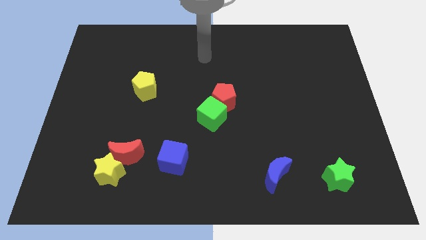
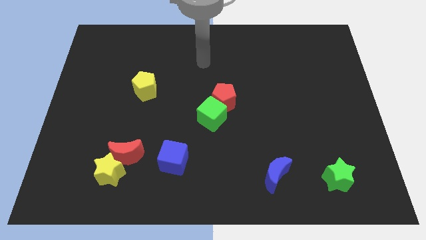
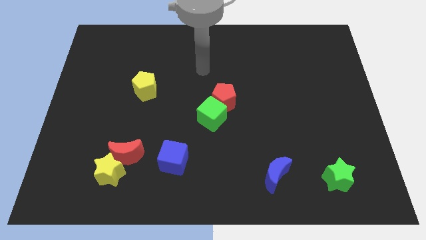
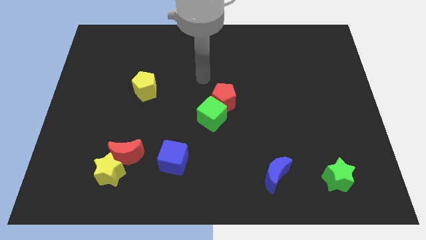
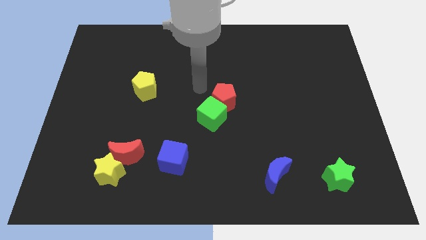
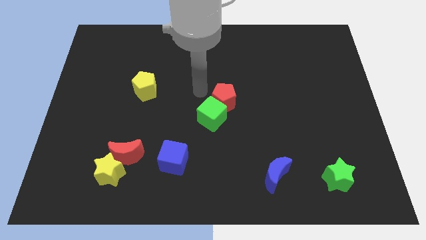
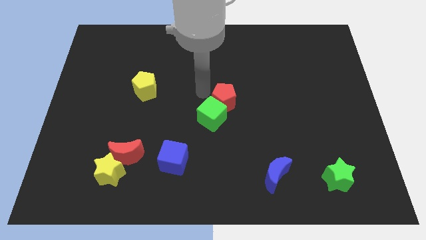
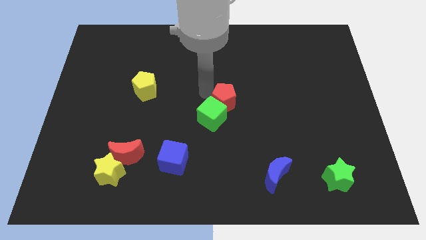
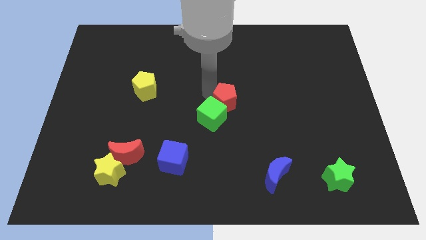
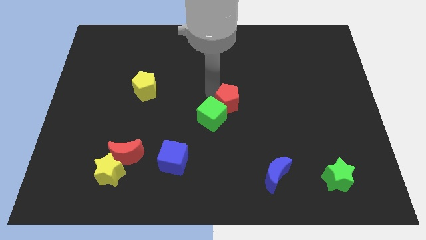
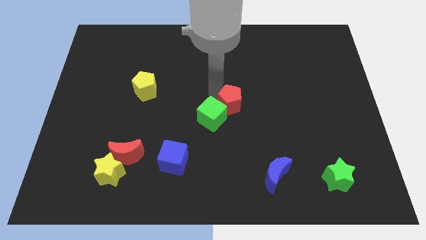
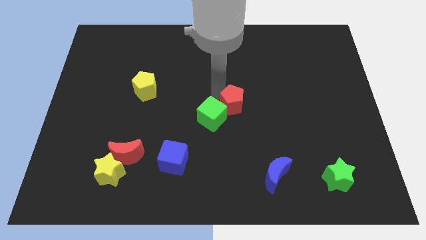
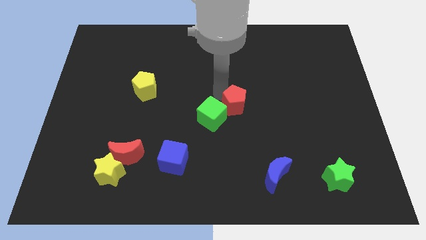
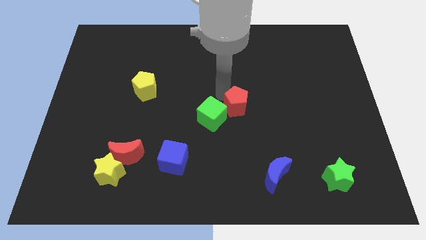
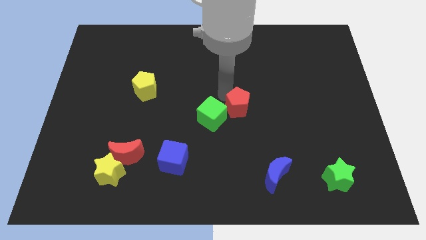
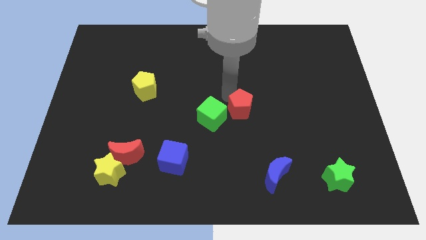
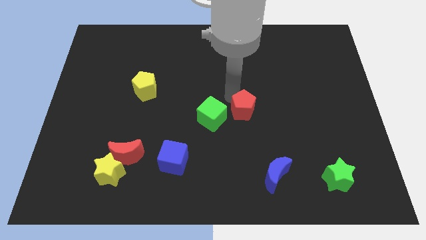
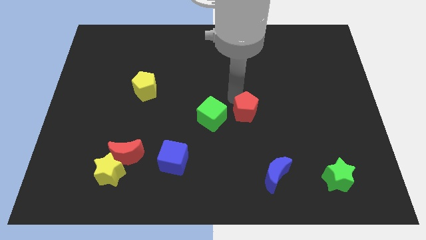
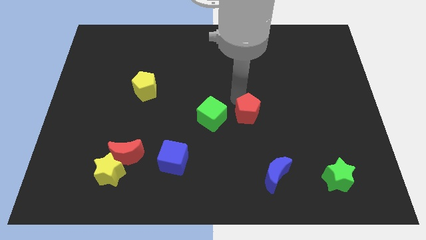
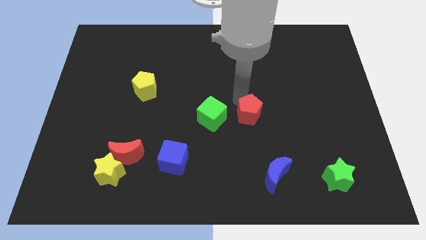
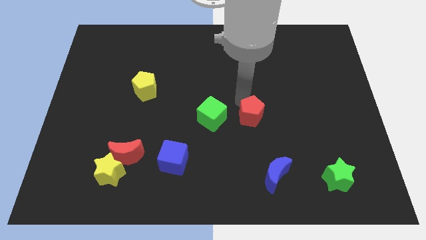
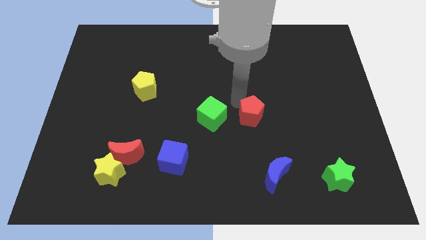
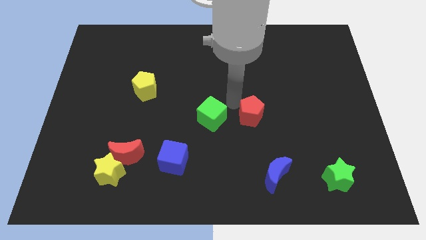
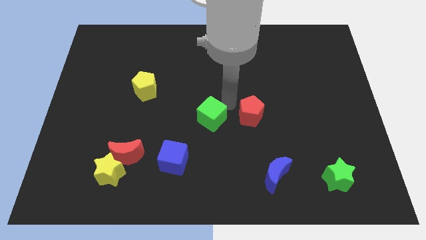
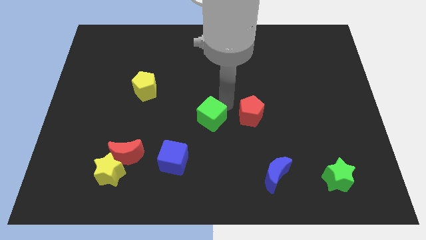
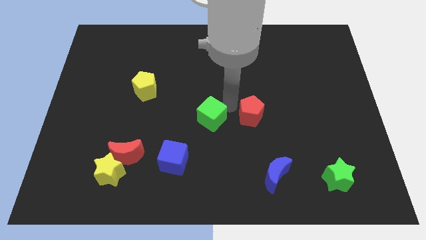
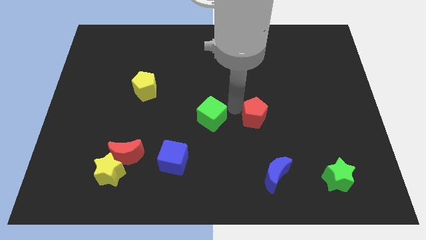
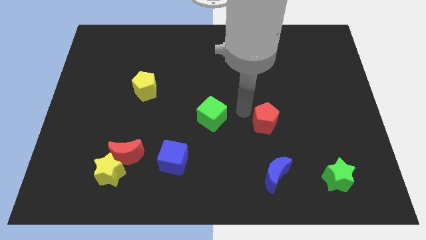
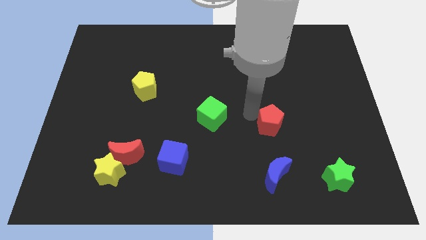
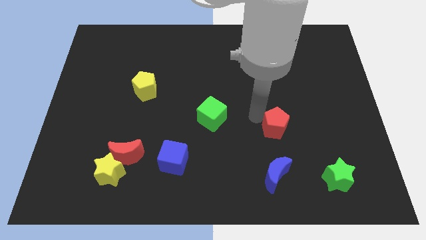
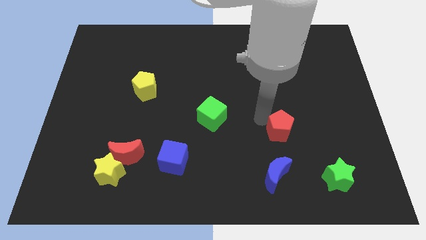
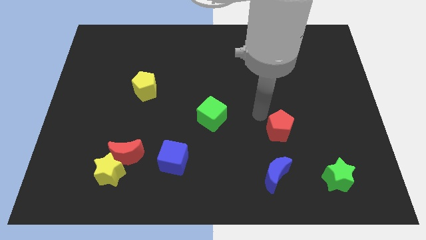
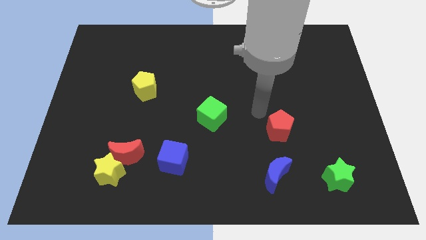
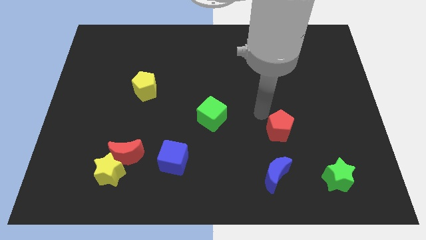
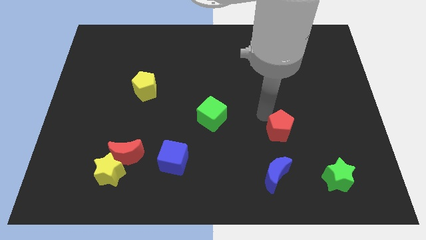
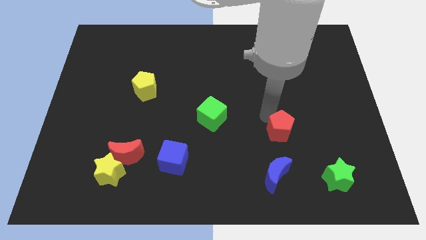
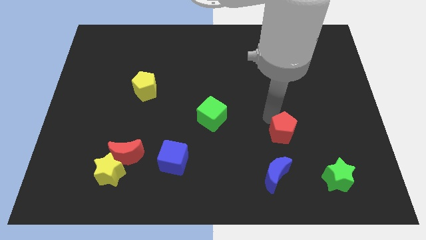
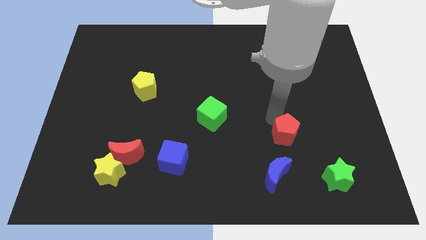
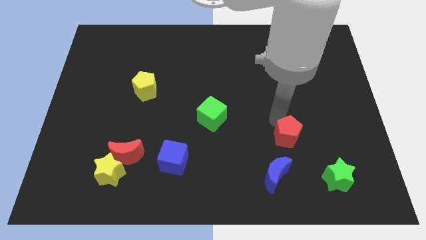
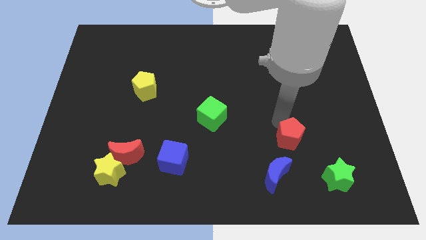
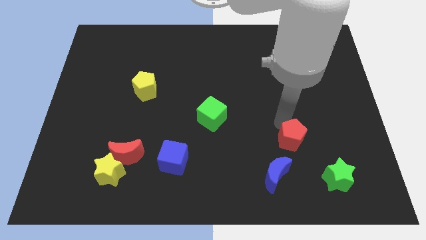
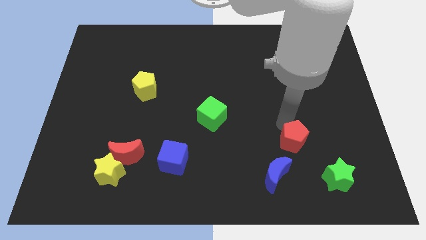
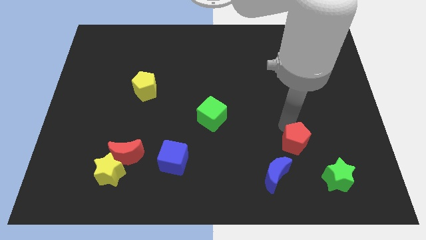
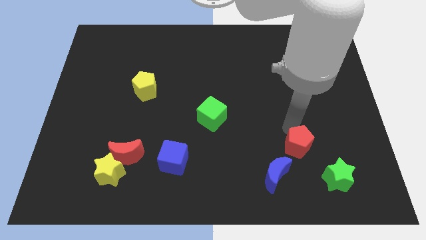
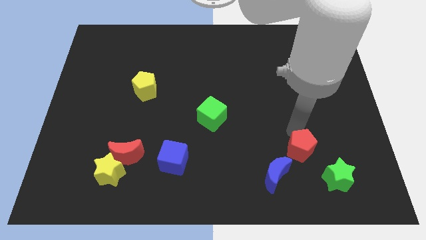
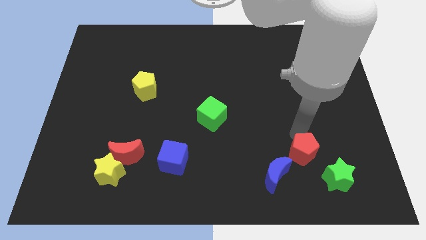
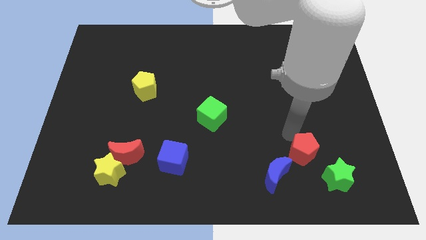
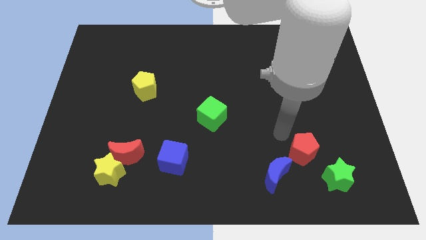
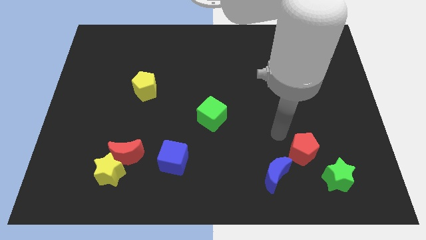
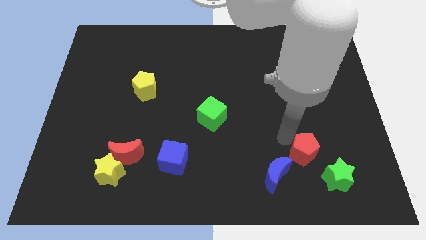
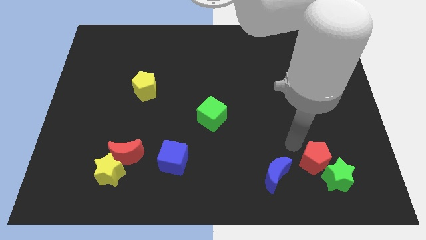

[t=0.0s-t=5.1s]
move the red pentagon next to the green star

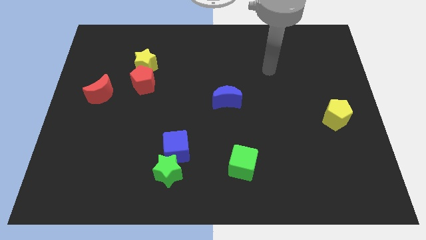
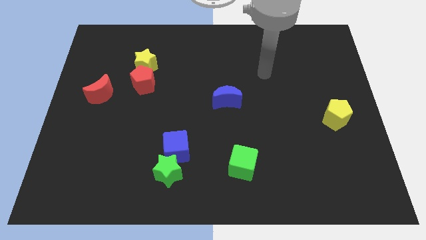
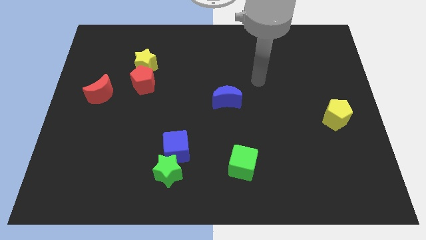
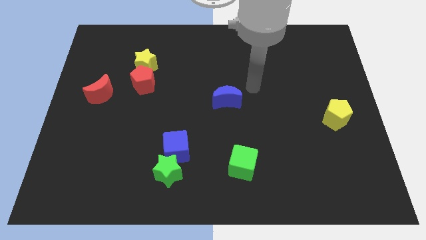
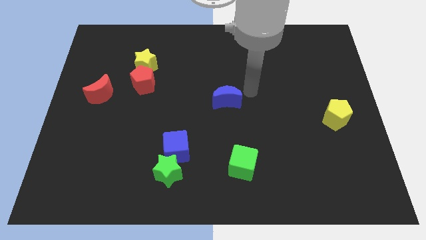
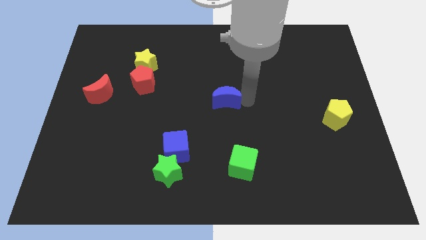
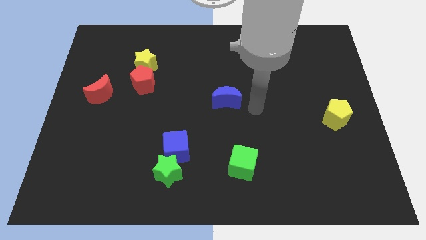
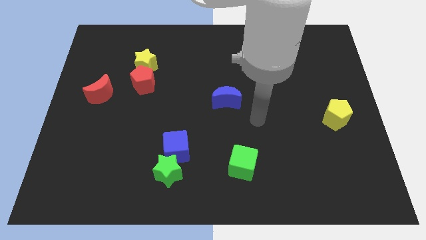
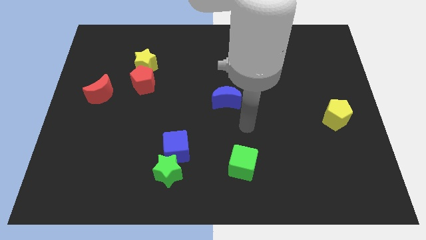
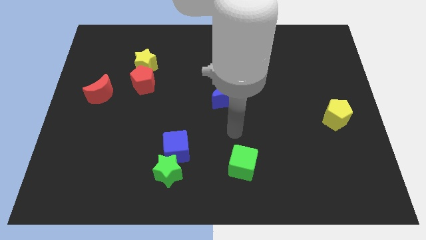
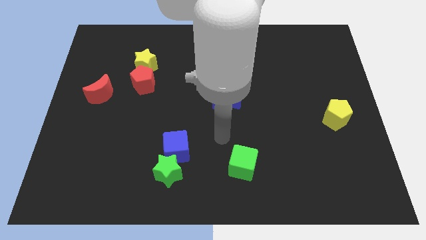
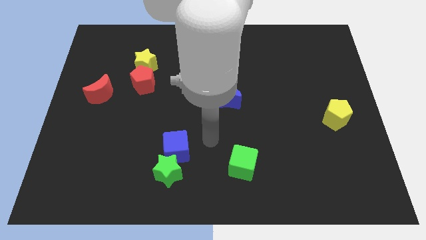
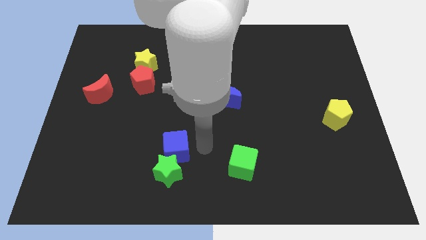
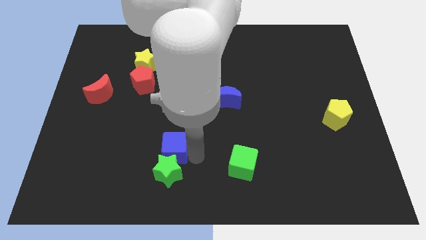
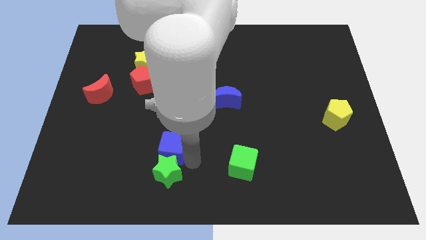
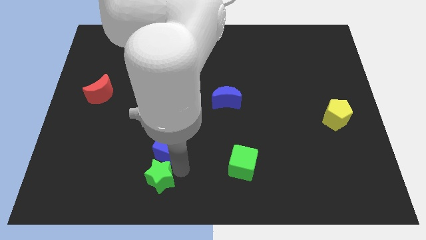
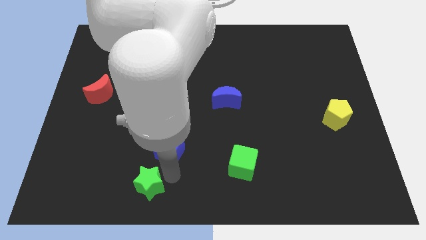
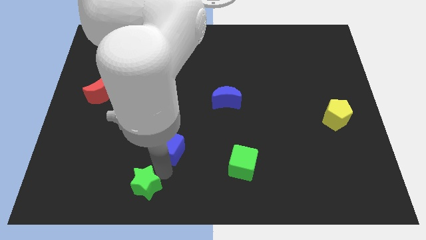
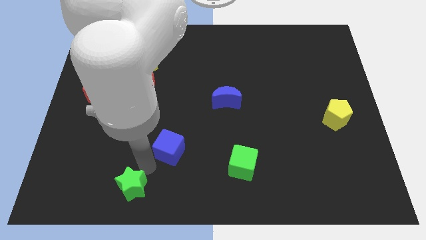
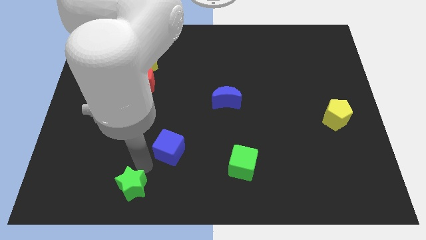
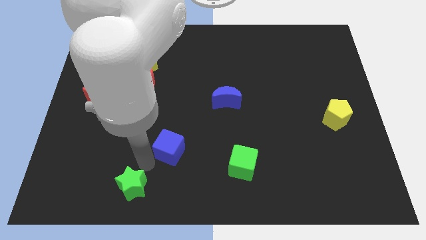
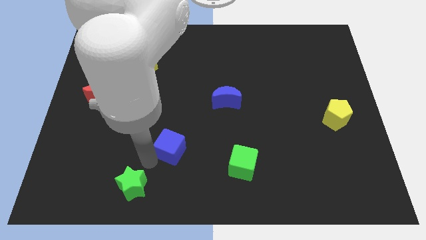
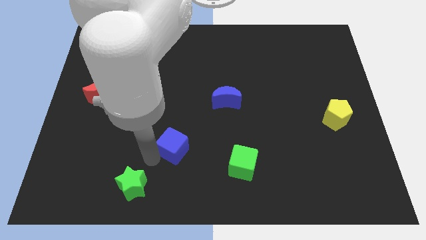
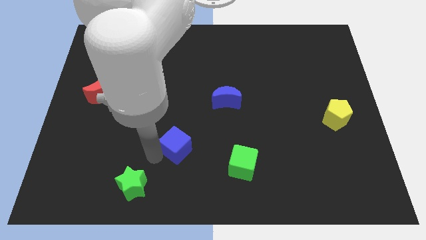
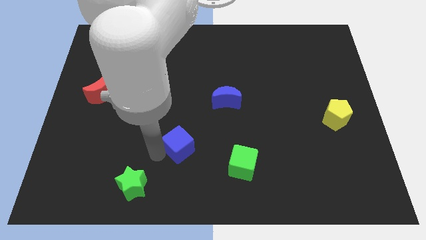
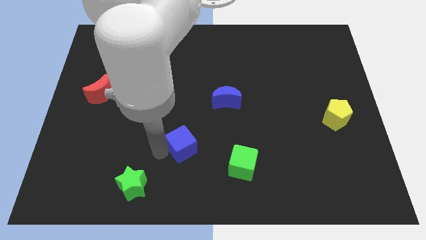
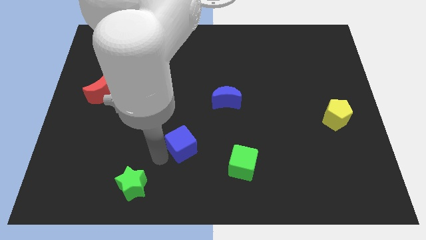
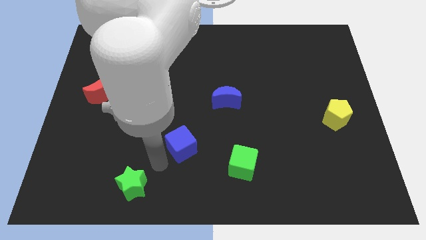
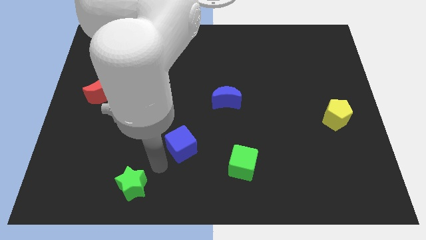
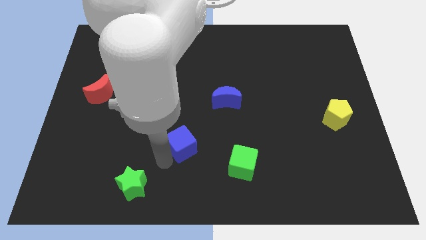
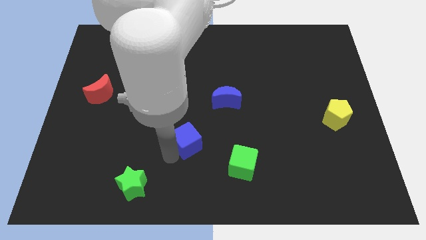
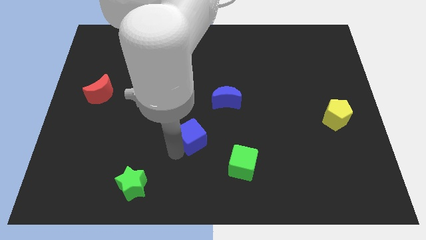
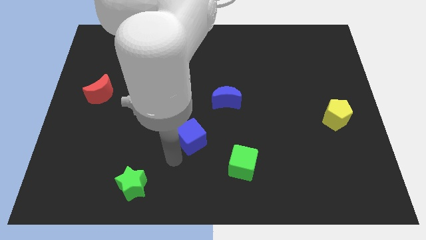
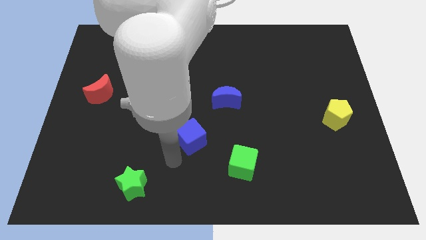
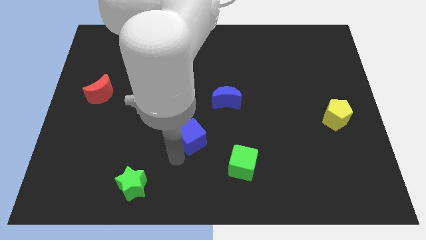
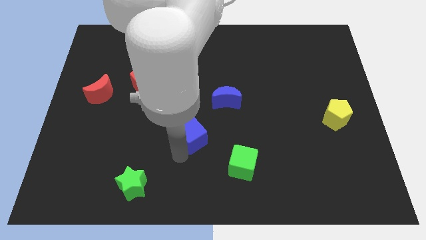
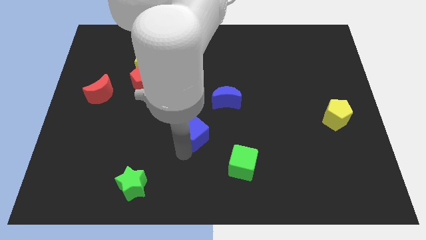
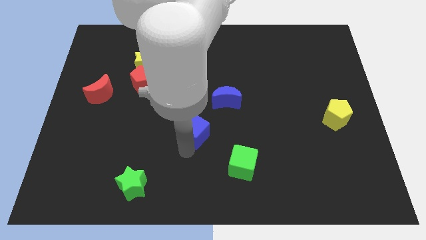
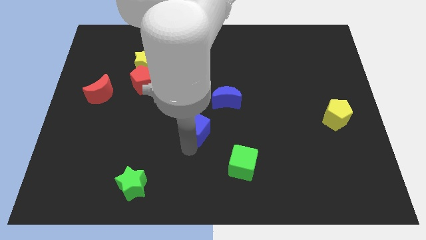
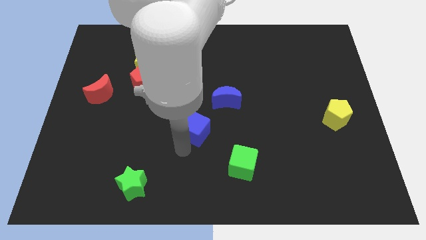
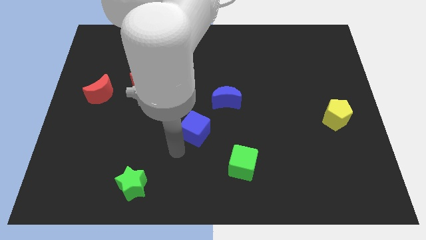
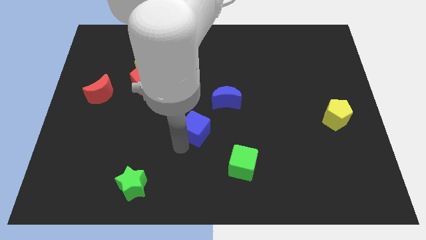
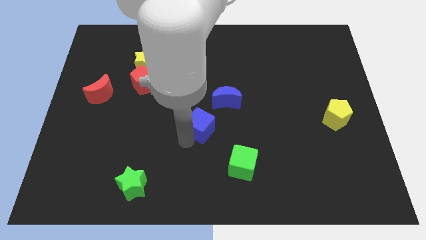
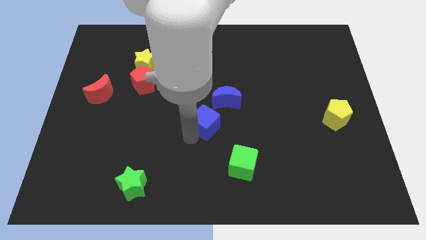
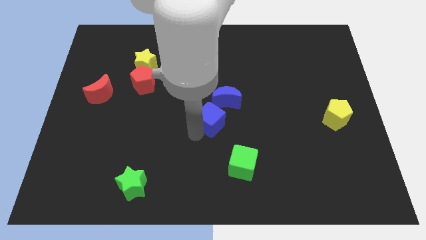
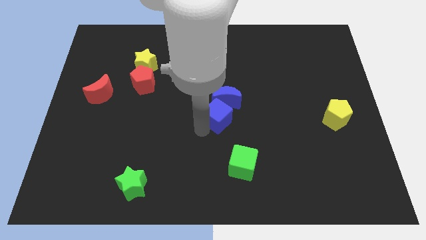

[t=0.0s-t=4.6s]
put the blue cube close to the blue moon
